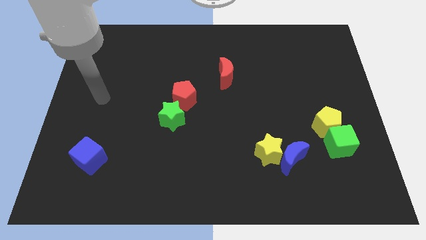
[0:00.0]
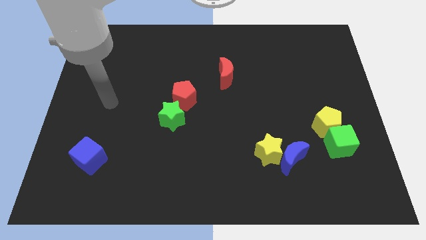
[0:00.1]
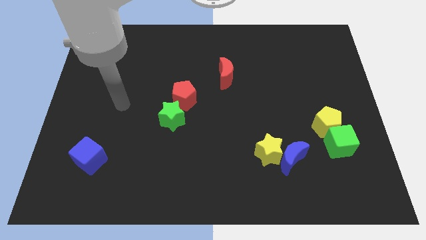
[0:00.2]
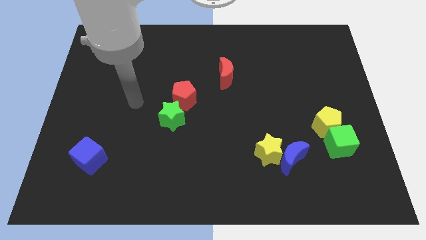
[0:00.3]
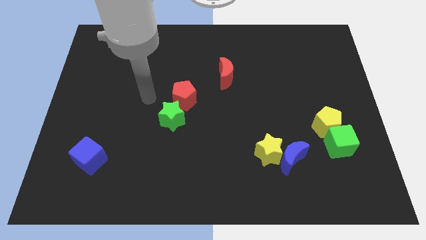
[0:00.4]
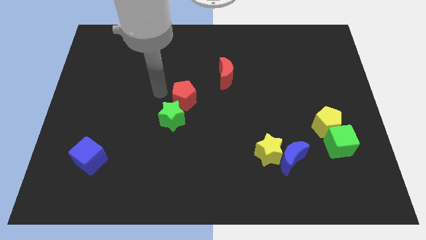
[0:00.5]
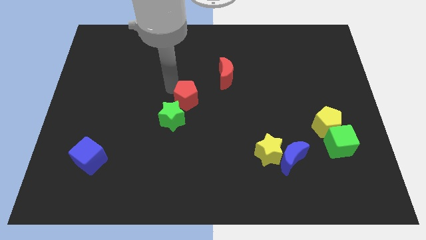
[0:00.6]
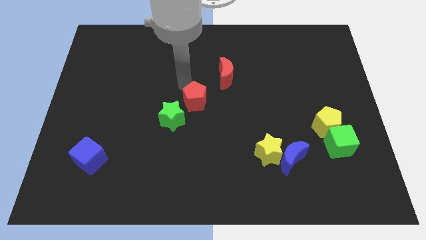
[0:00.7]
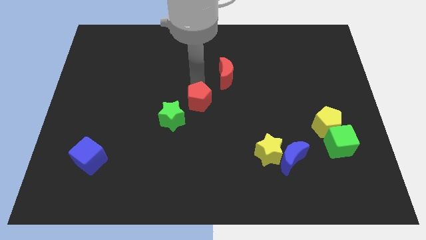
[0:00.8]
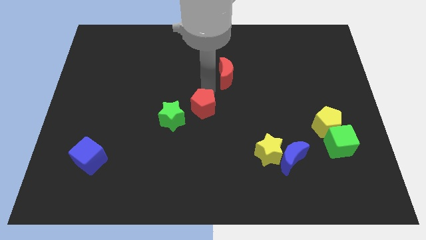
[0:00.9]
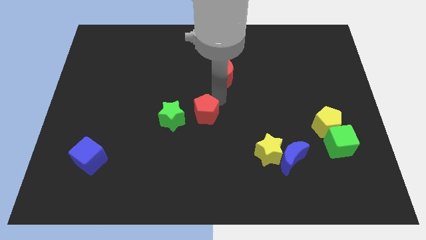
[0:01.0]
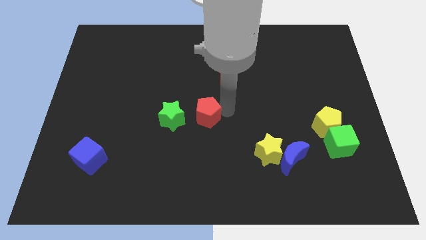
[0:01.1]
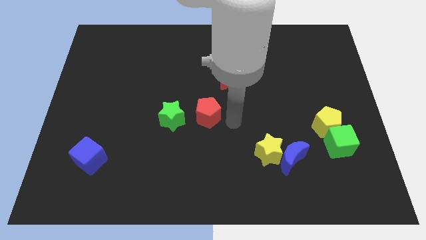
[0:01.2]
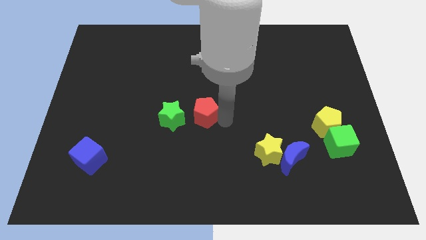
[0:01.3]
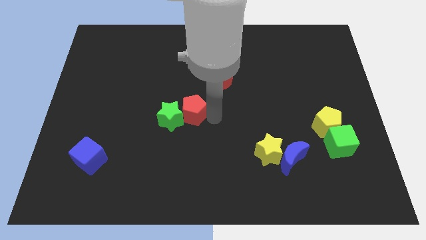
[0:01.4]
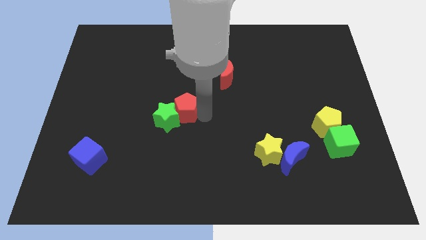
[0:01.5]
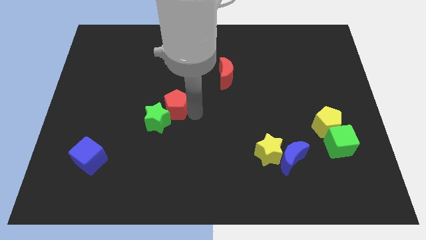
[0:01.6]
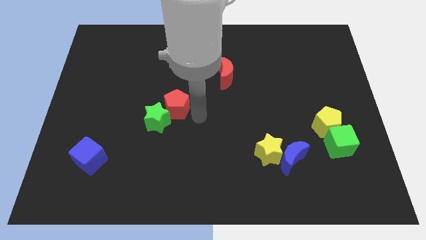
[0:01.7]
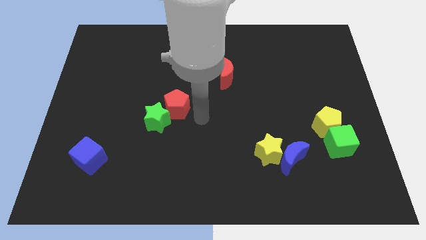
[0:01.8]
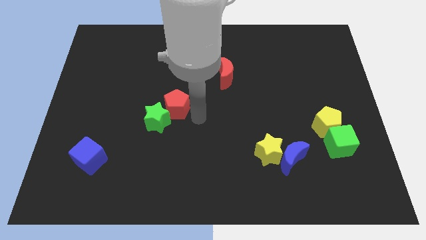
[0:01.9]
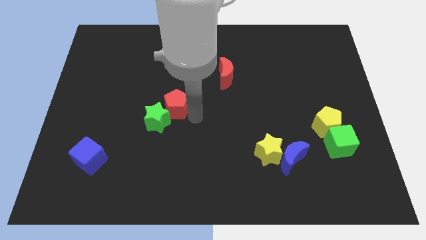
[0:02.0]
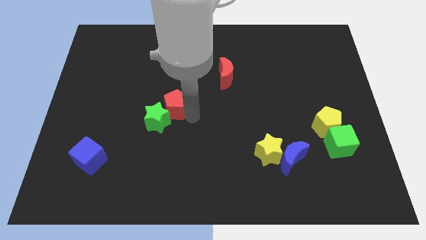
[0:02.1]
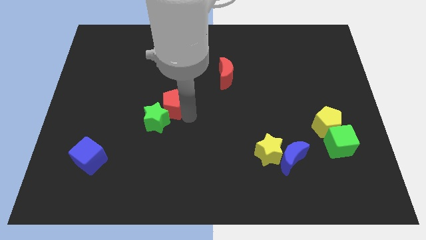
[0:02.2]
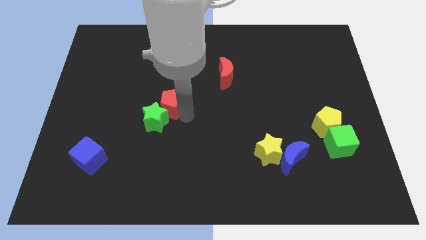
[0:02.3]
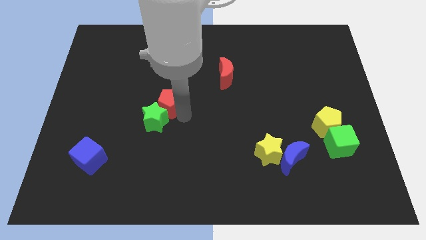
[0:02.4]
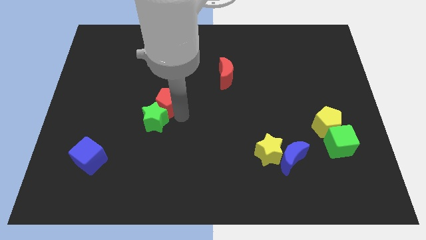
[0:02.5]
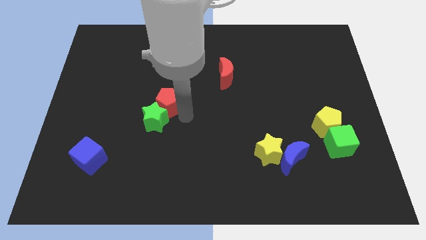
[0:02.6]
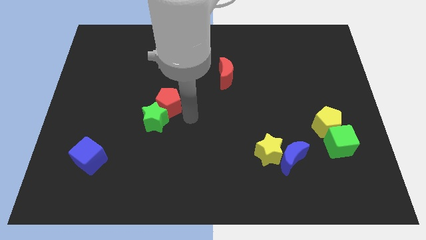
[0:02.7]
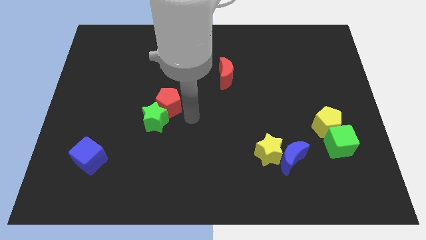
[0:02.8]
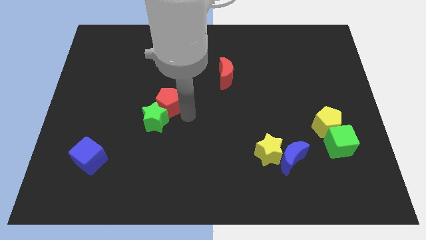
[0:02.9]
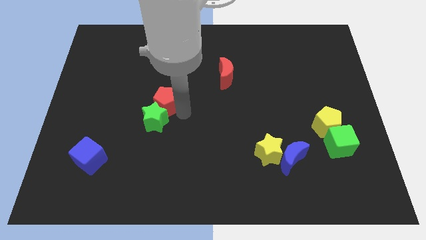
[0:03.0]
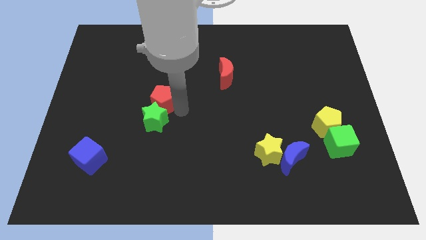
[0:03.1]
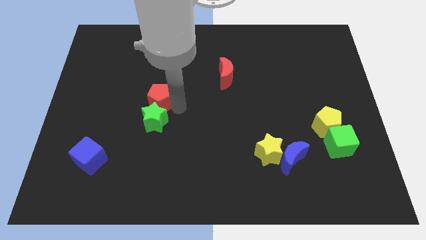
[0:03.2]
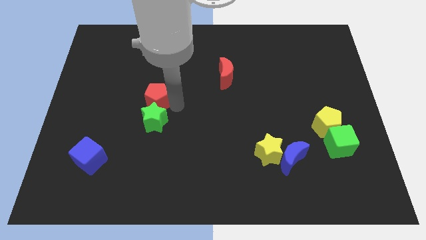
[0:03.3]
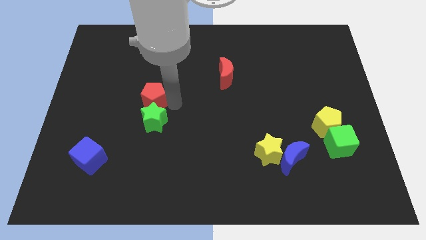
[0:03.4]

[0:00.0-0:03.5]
slightly slide the red pentagon left

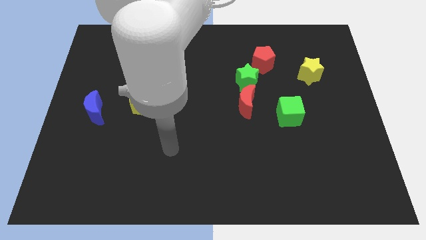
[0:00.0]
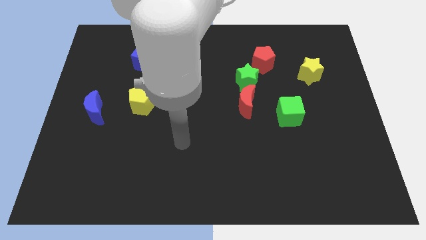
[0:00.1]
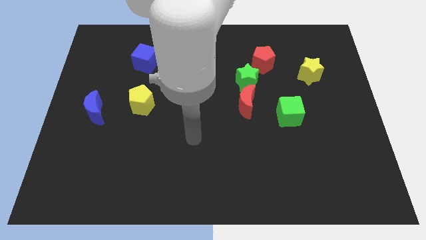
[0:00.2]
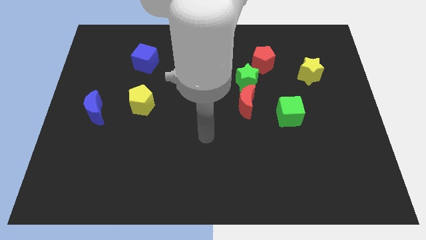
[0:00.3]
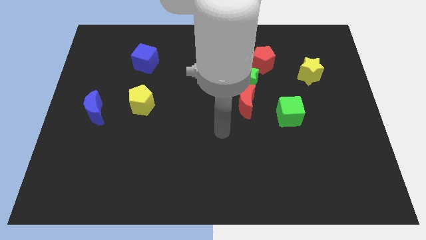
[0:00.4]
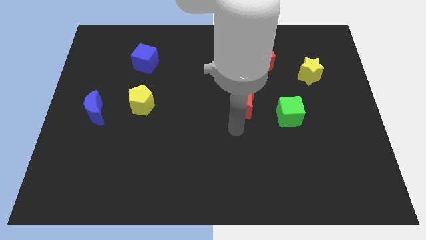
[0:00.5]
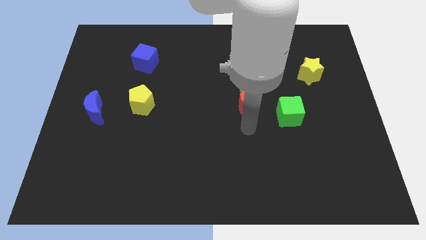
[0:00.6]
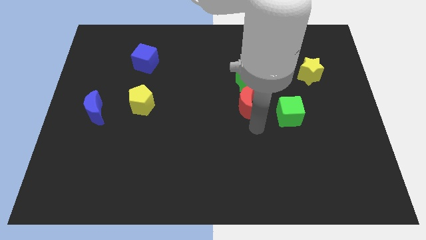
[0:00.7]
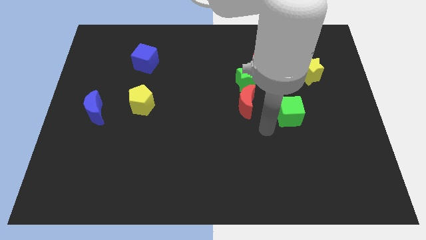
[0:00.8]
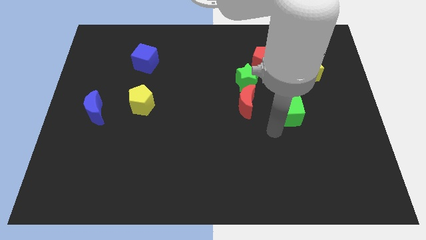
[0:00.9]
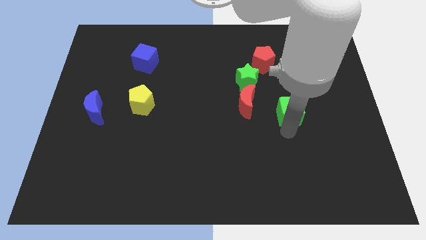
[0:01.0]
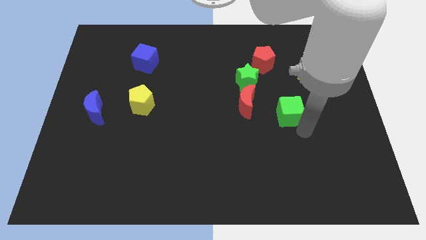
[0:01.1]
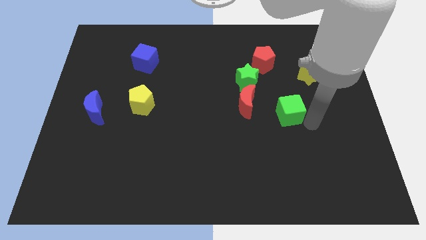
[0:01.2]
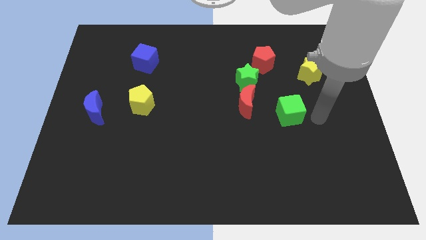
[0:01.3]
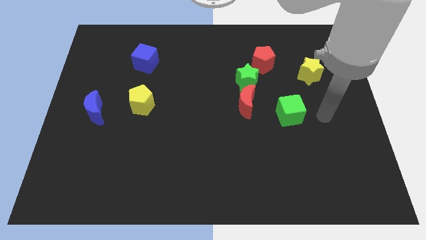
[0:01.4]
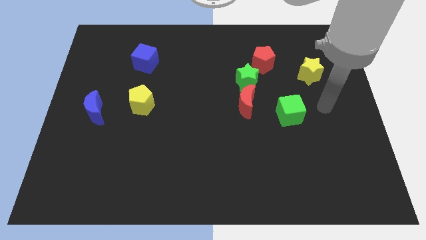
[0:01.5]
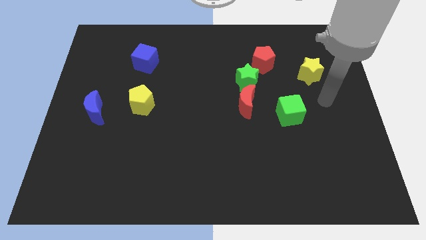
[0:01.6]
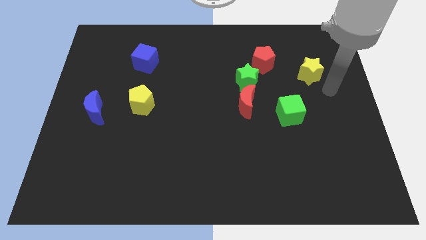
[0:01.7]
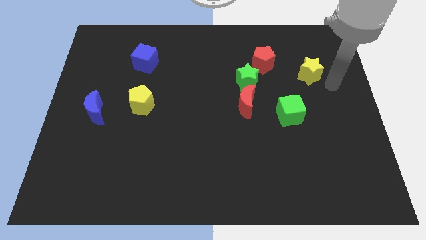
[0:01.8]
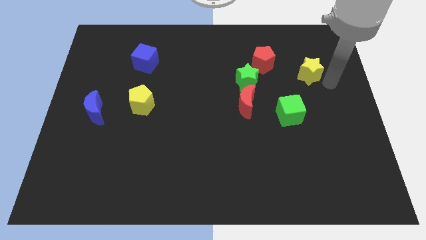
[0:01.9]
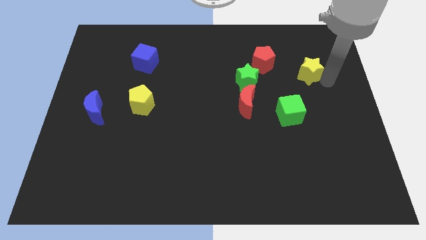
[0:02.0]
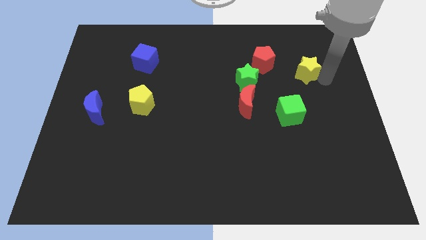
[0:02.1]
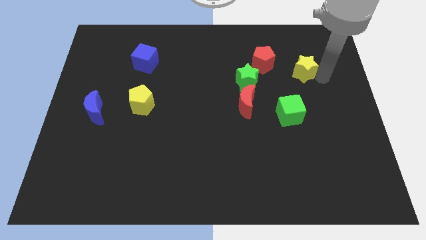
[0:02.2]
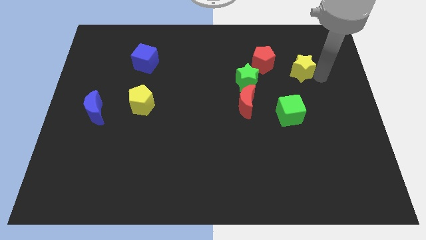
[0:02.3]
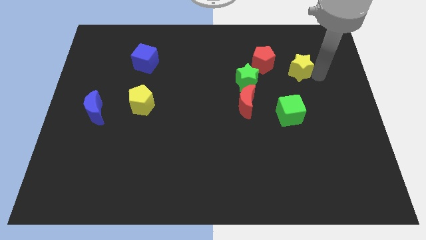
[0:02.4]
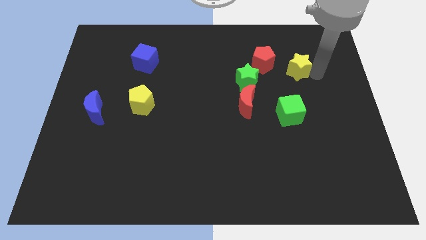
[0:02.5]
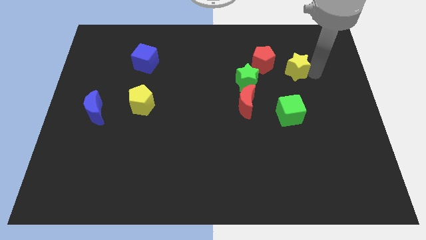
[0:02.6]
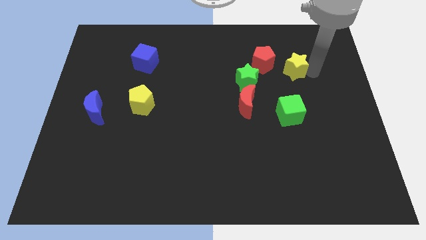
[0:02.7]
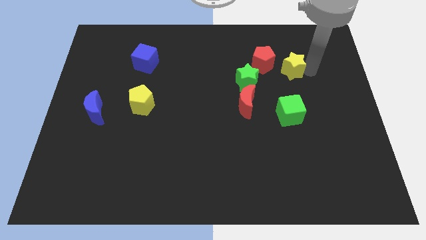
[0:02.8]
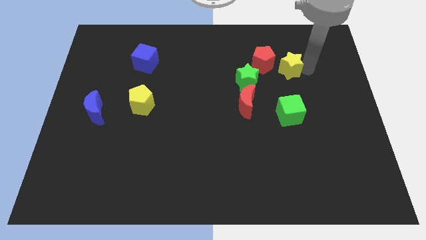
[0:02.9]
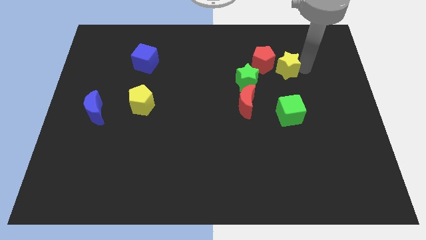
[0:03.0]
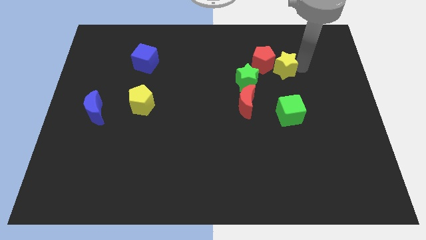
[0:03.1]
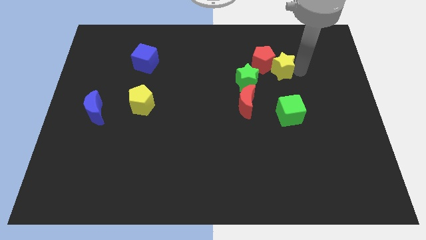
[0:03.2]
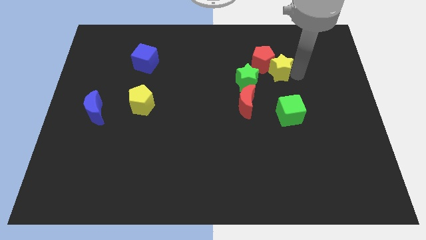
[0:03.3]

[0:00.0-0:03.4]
push the yellow star left a little bit

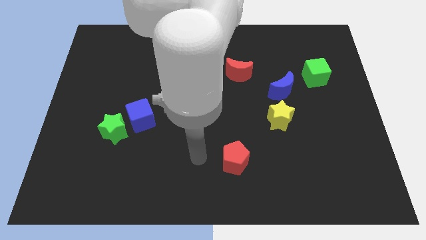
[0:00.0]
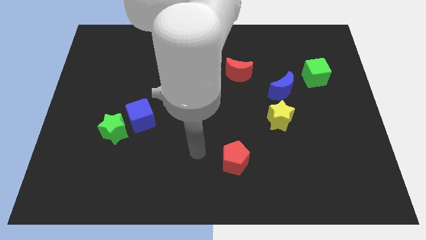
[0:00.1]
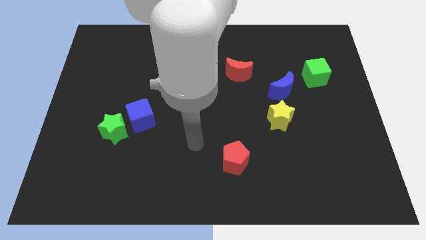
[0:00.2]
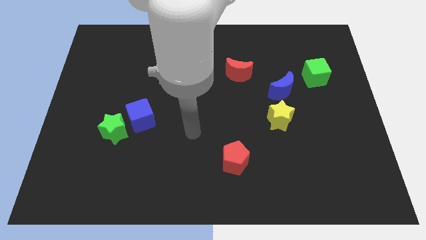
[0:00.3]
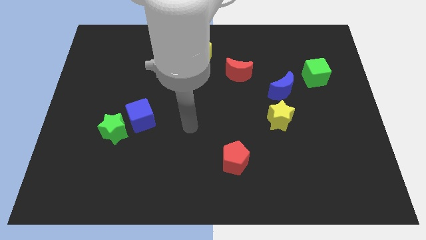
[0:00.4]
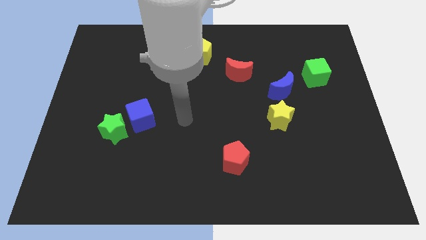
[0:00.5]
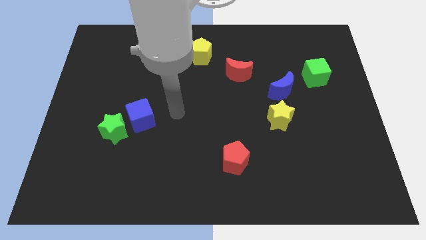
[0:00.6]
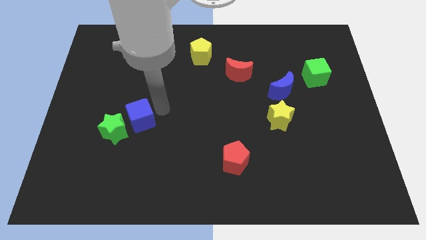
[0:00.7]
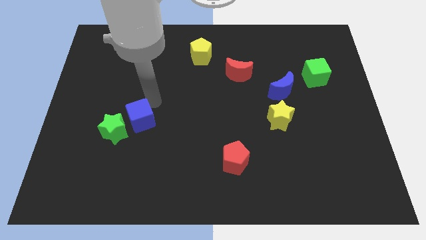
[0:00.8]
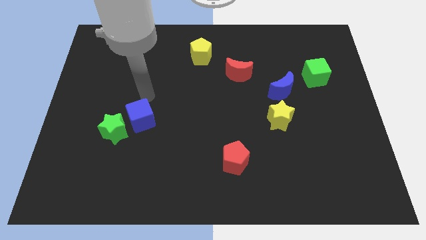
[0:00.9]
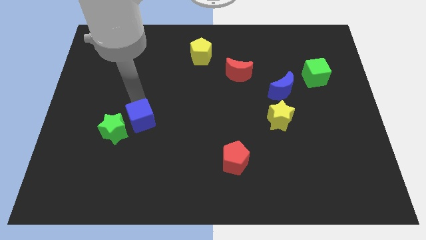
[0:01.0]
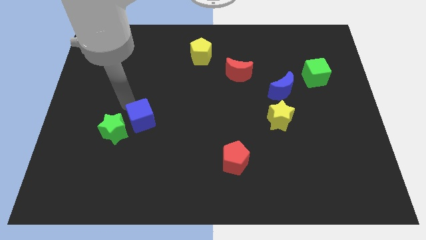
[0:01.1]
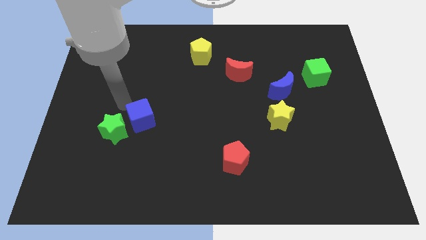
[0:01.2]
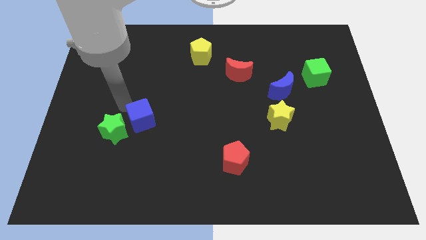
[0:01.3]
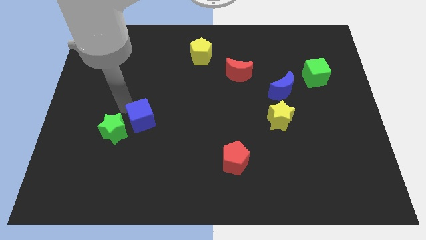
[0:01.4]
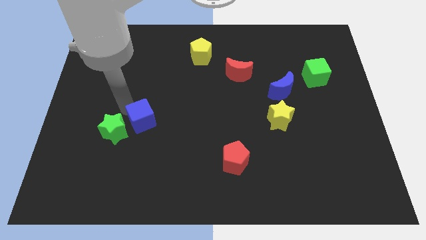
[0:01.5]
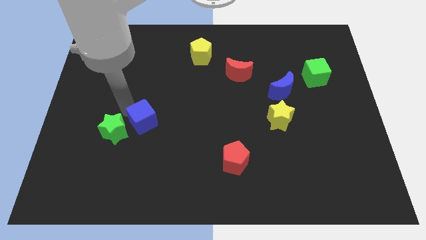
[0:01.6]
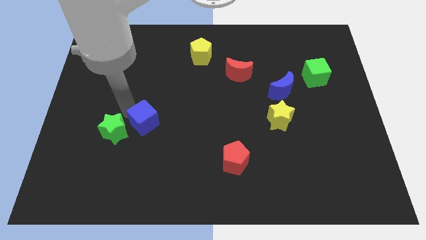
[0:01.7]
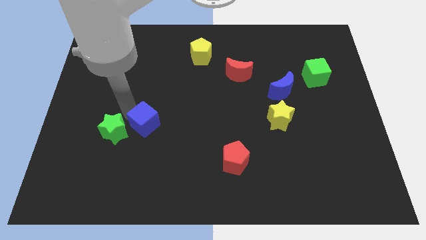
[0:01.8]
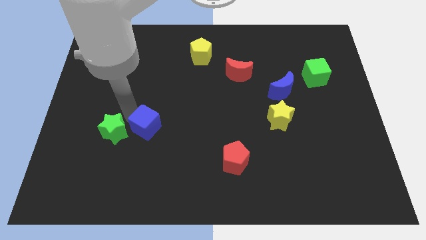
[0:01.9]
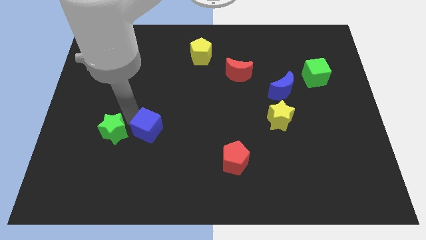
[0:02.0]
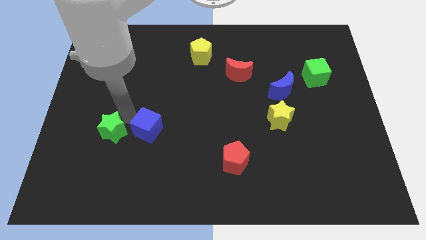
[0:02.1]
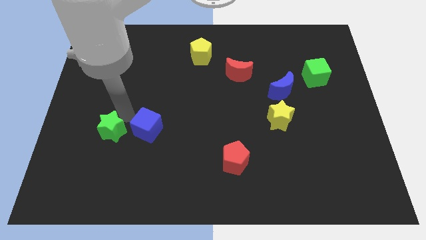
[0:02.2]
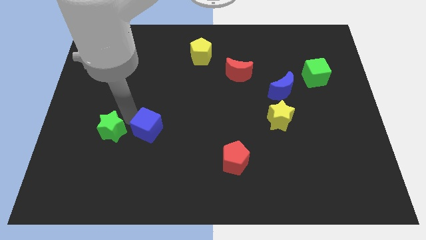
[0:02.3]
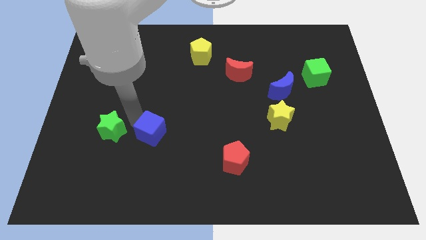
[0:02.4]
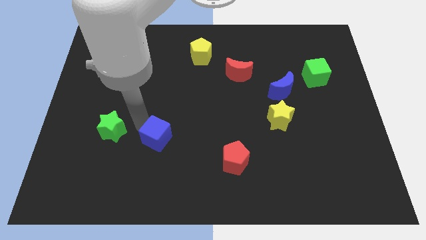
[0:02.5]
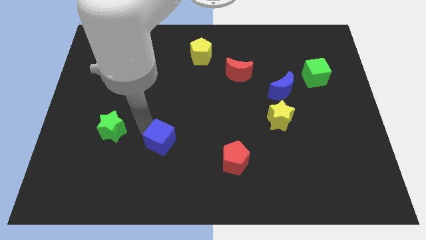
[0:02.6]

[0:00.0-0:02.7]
move the blue cube downwards and to the right somewhat
